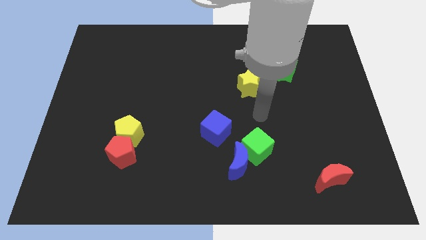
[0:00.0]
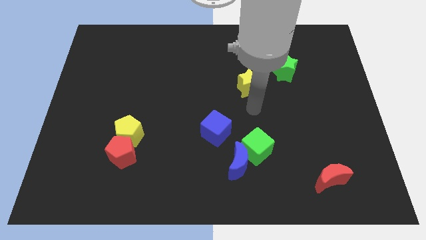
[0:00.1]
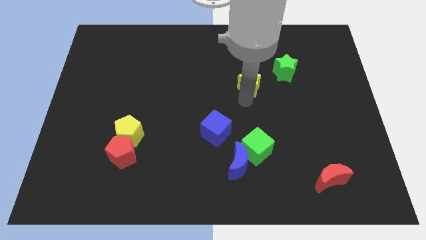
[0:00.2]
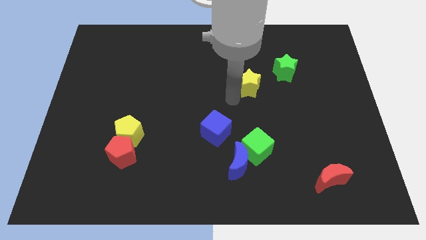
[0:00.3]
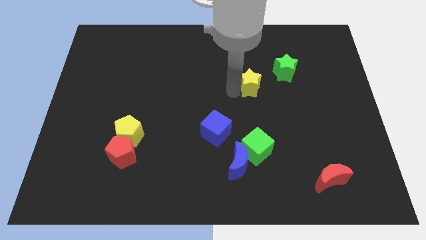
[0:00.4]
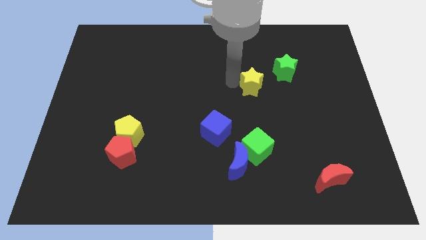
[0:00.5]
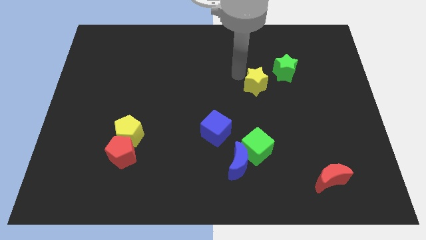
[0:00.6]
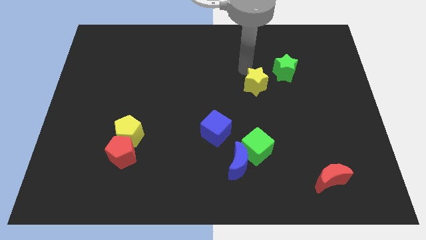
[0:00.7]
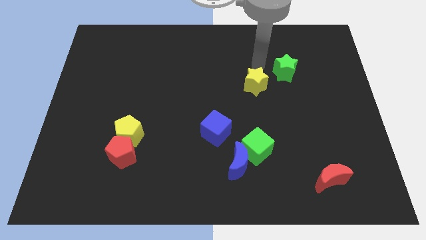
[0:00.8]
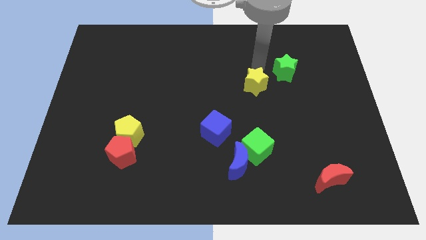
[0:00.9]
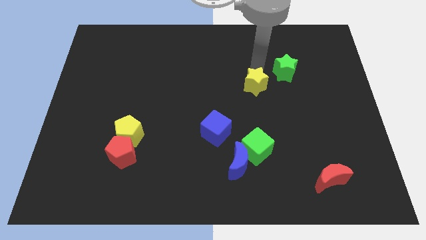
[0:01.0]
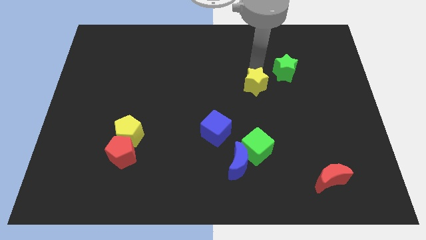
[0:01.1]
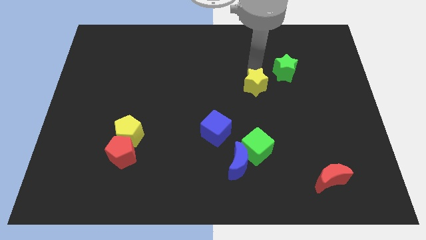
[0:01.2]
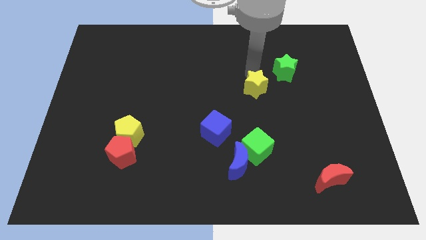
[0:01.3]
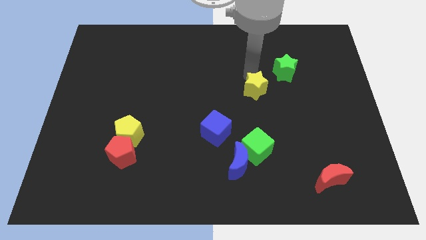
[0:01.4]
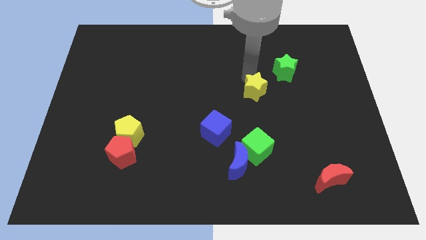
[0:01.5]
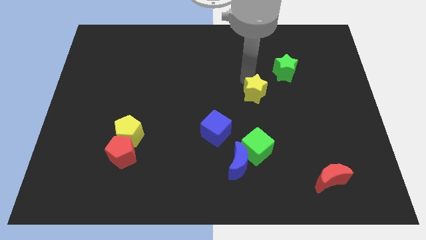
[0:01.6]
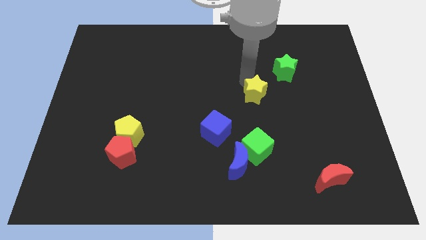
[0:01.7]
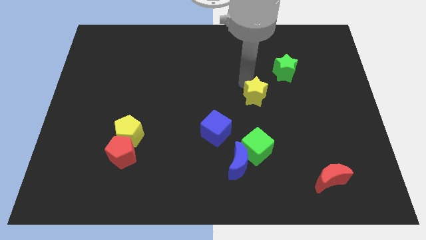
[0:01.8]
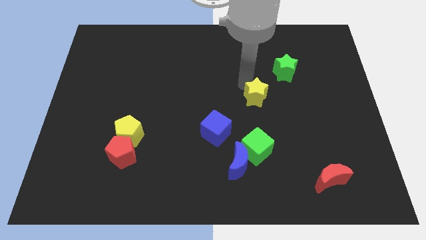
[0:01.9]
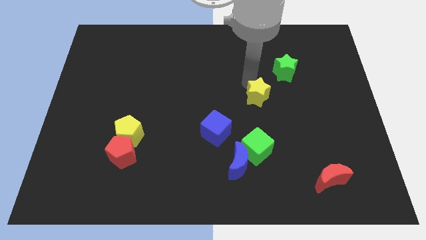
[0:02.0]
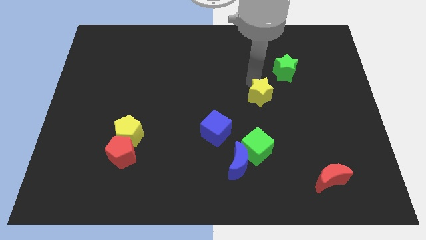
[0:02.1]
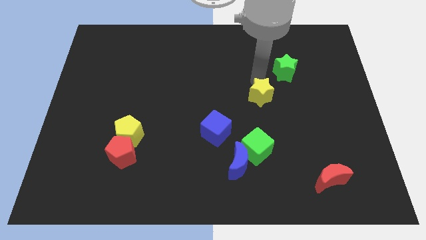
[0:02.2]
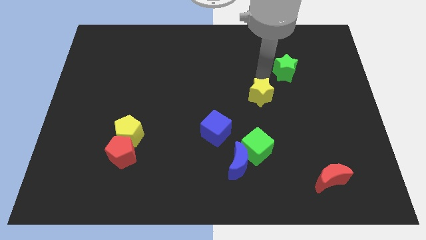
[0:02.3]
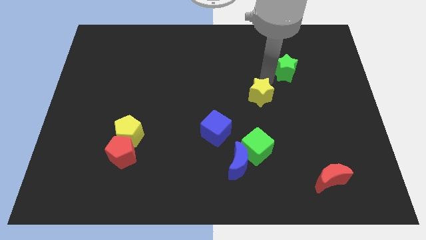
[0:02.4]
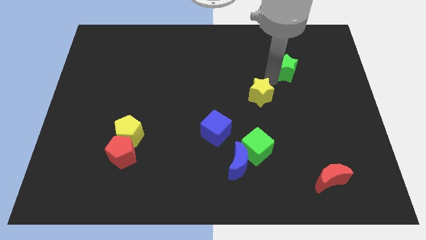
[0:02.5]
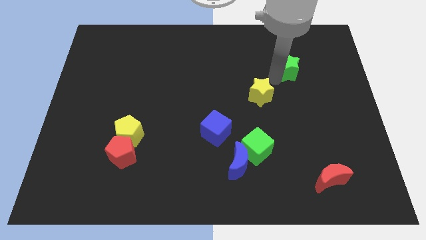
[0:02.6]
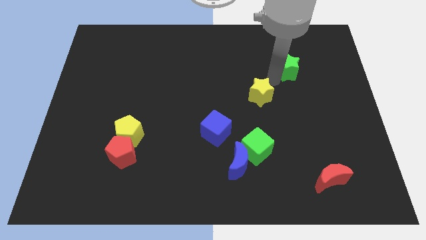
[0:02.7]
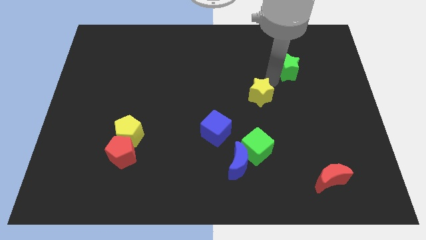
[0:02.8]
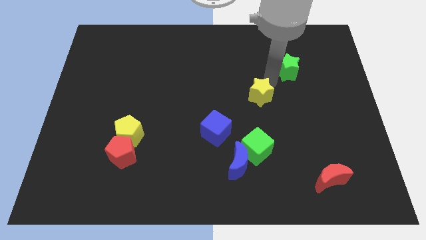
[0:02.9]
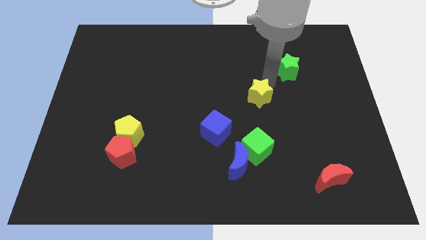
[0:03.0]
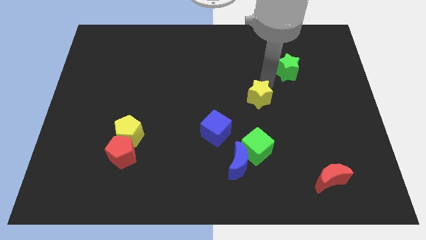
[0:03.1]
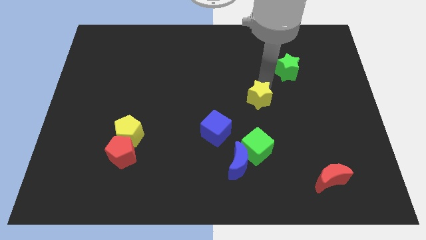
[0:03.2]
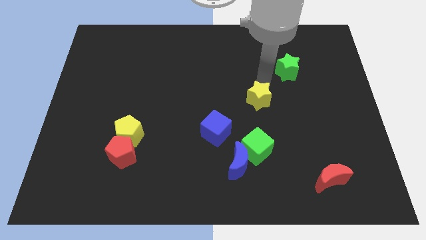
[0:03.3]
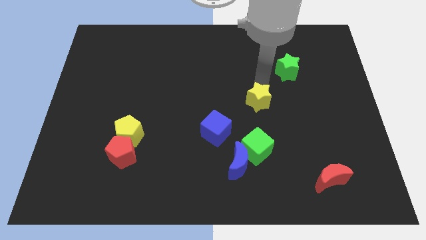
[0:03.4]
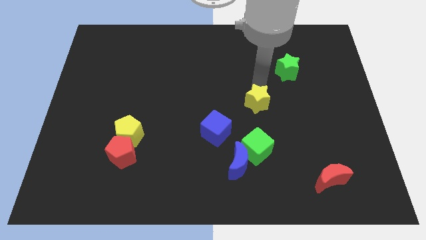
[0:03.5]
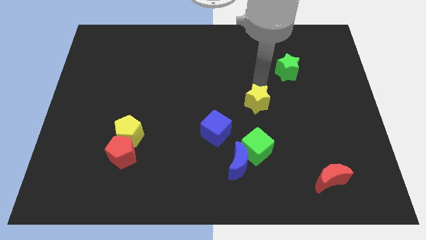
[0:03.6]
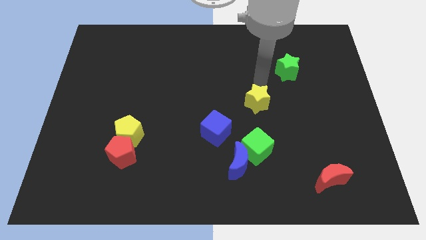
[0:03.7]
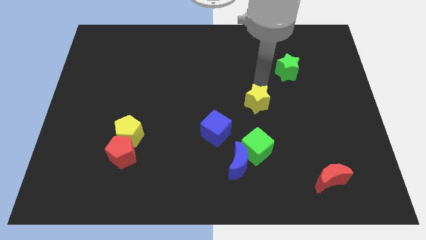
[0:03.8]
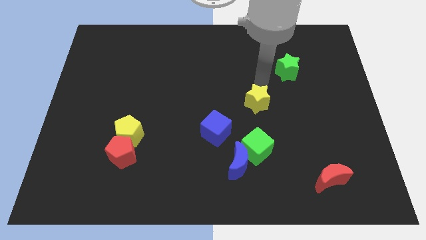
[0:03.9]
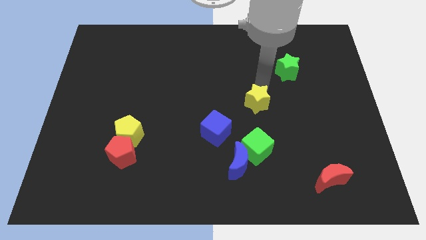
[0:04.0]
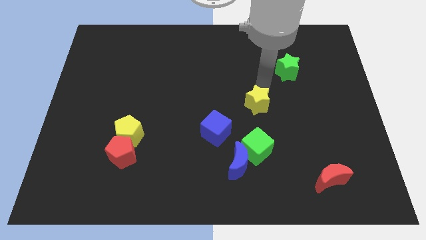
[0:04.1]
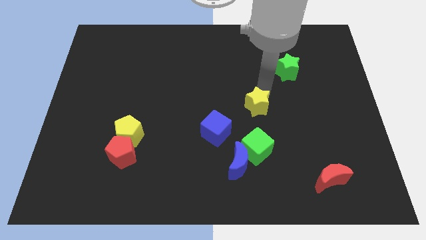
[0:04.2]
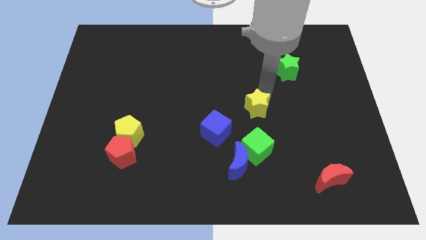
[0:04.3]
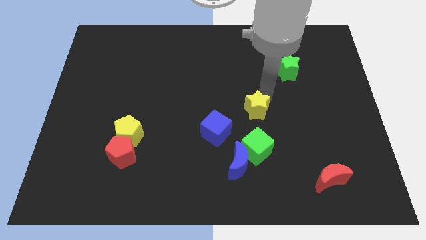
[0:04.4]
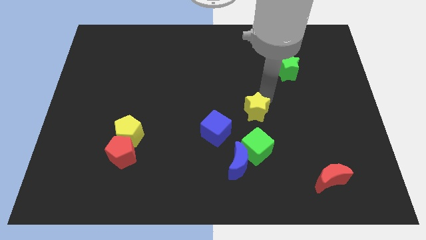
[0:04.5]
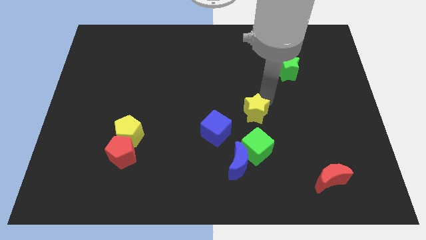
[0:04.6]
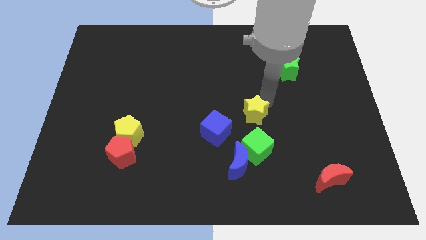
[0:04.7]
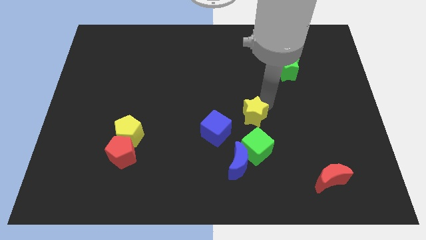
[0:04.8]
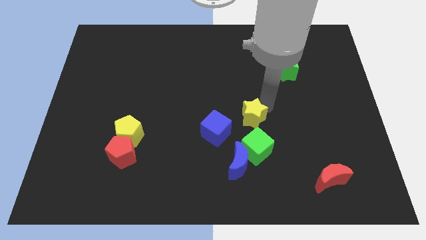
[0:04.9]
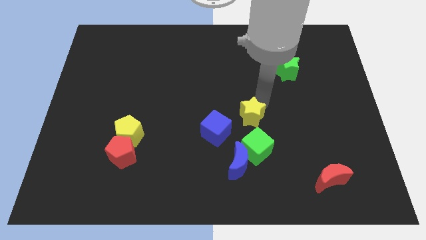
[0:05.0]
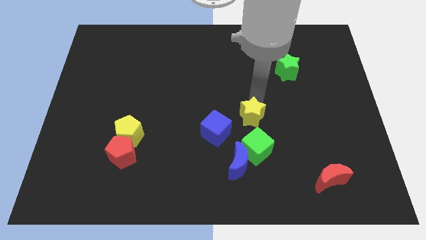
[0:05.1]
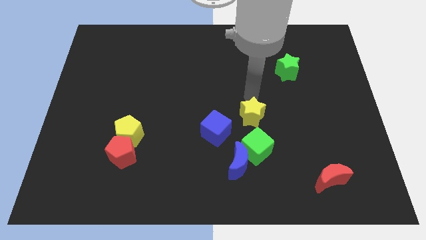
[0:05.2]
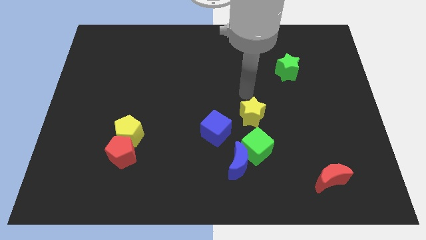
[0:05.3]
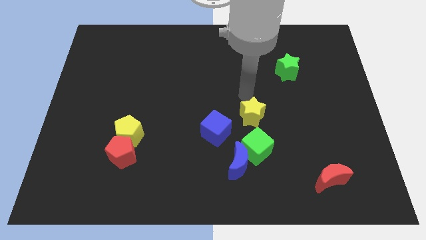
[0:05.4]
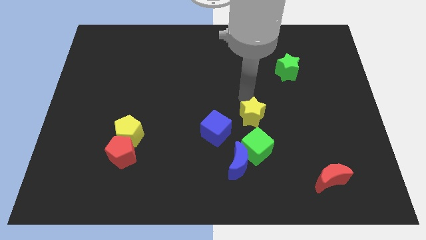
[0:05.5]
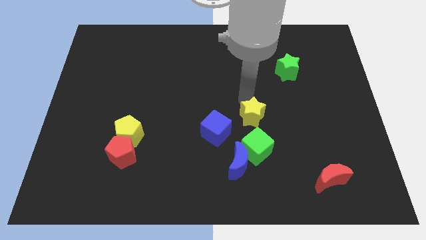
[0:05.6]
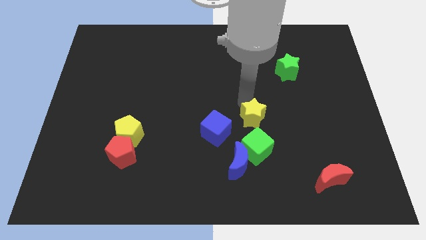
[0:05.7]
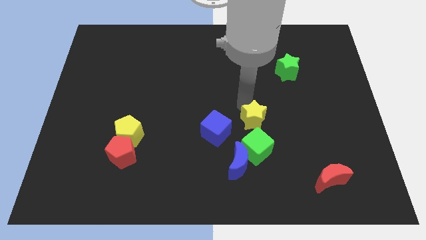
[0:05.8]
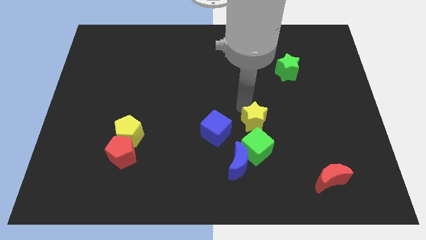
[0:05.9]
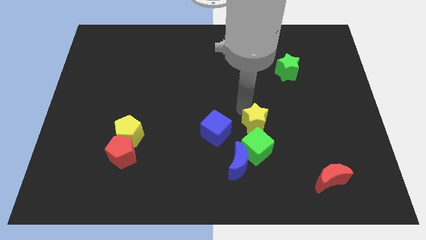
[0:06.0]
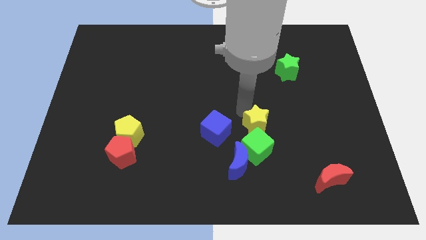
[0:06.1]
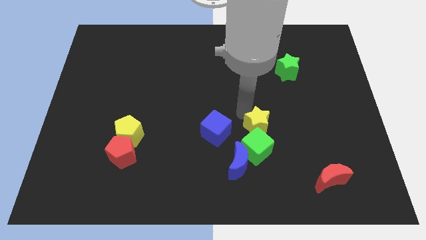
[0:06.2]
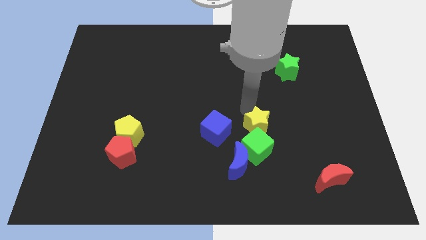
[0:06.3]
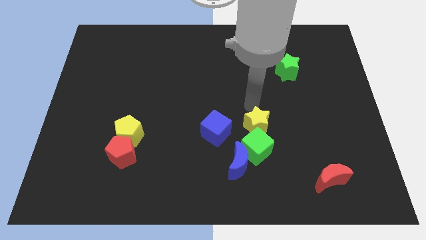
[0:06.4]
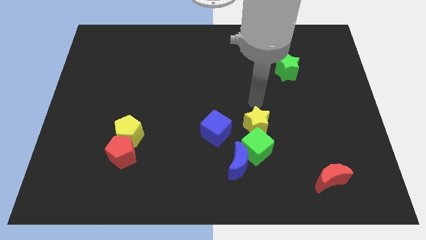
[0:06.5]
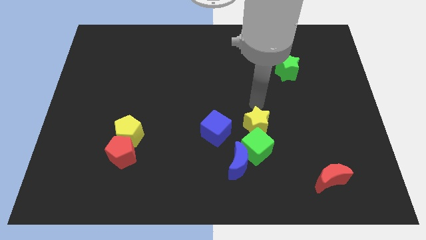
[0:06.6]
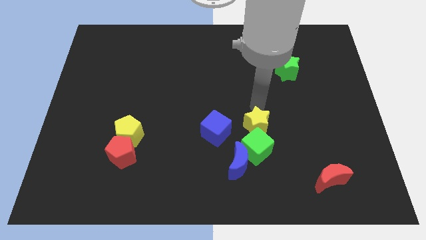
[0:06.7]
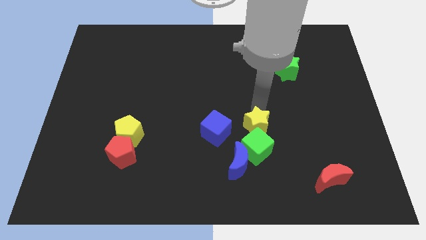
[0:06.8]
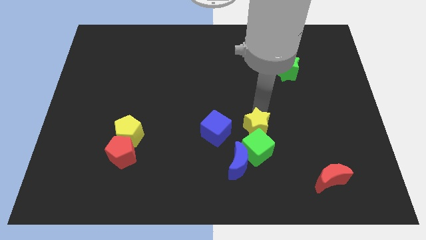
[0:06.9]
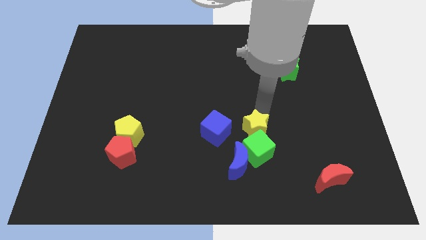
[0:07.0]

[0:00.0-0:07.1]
move the yellow star next to the green cube
